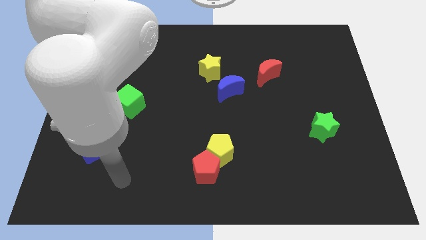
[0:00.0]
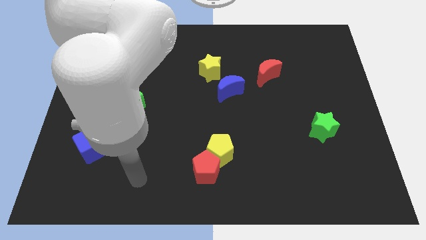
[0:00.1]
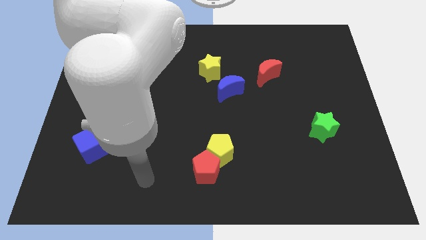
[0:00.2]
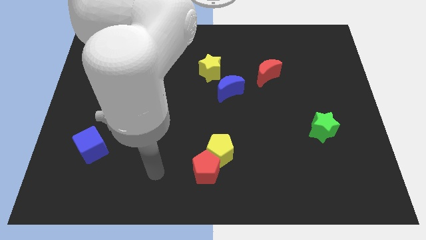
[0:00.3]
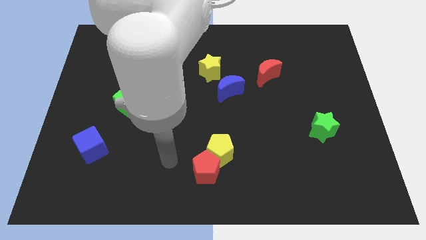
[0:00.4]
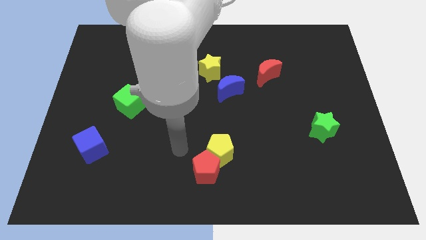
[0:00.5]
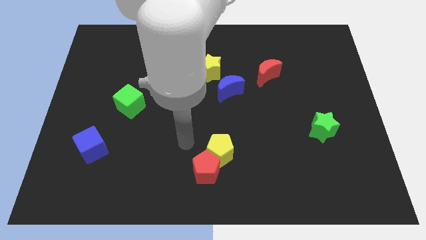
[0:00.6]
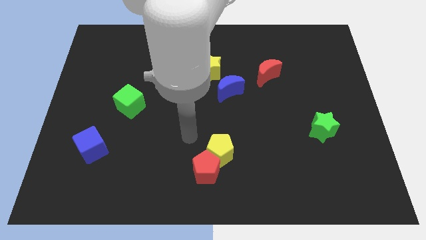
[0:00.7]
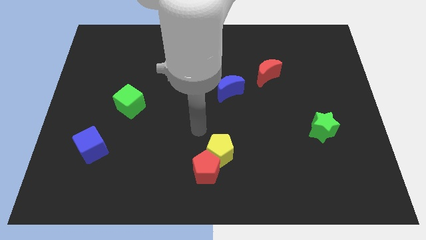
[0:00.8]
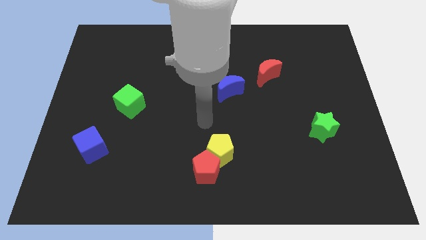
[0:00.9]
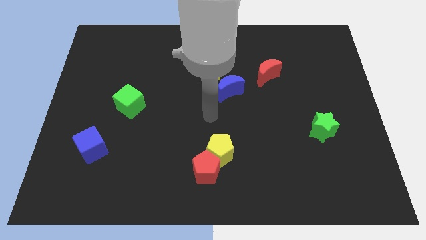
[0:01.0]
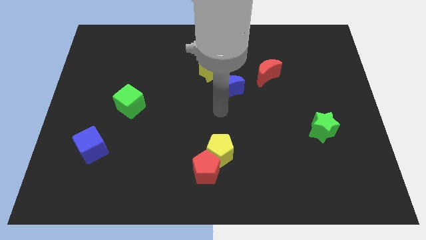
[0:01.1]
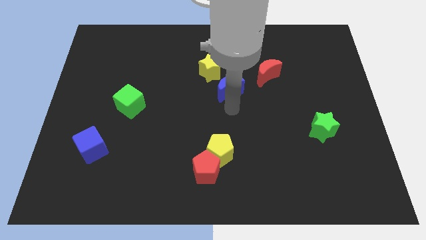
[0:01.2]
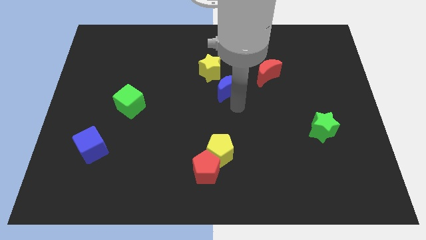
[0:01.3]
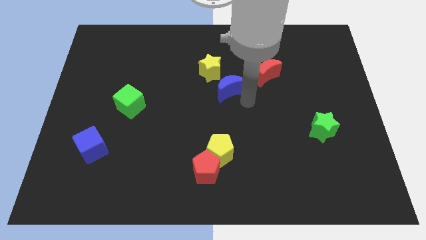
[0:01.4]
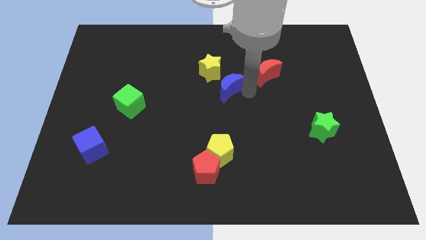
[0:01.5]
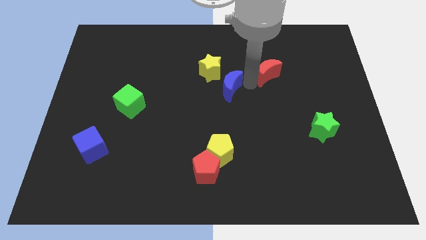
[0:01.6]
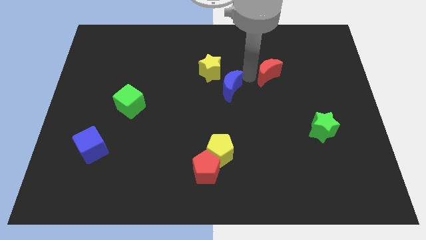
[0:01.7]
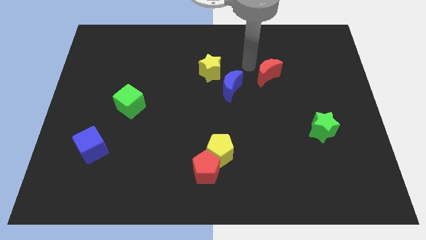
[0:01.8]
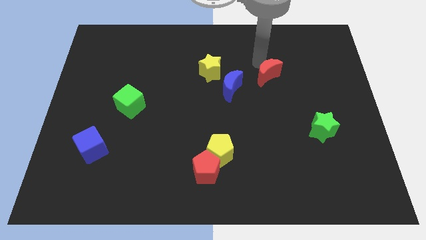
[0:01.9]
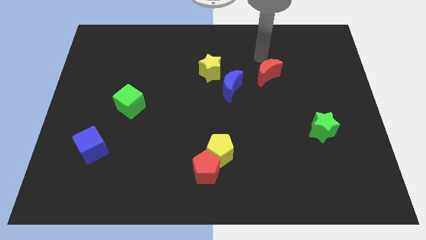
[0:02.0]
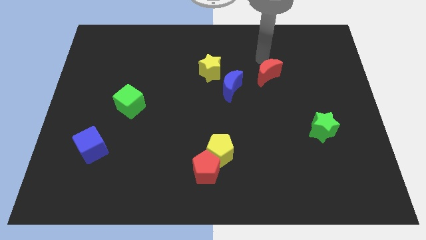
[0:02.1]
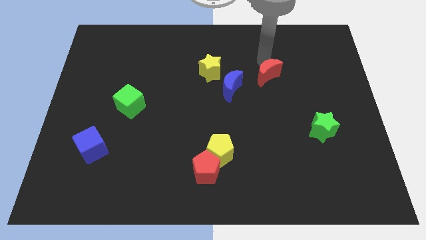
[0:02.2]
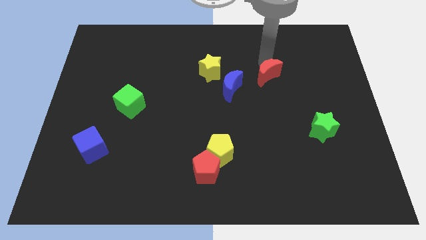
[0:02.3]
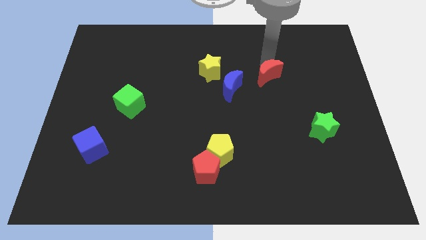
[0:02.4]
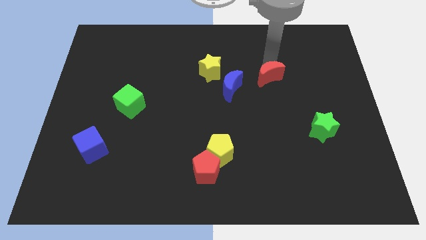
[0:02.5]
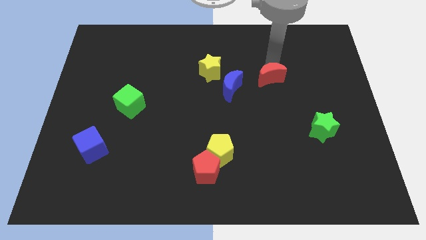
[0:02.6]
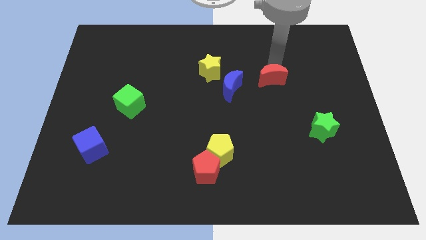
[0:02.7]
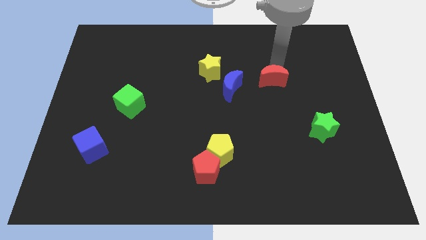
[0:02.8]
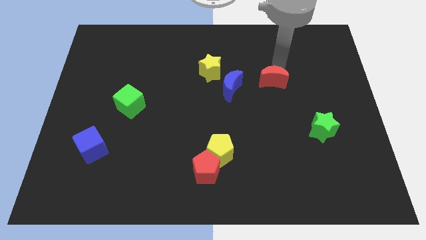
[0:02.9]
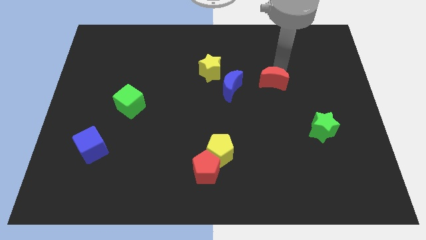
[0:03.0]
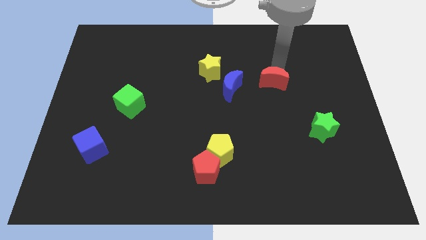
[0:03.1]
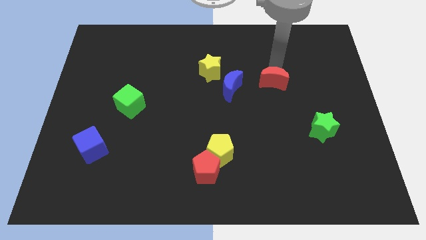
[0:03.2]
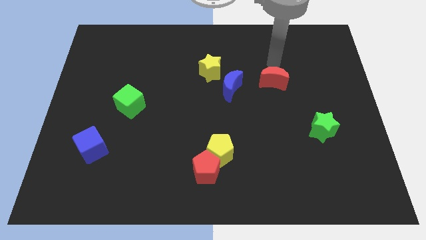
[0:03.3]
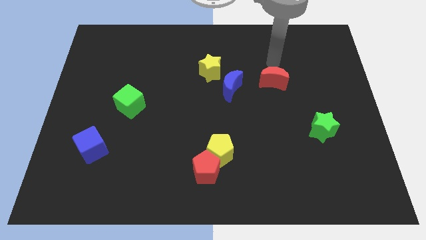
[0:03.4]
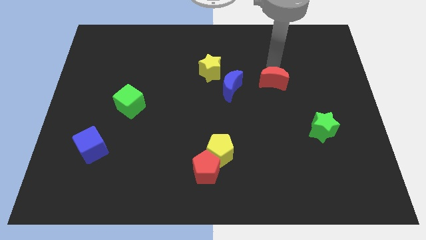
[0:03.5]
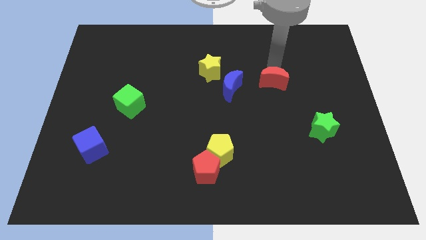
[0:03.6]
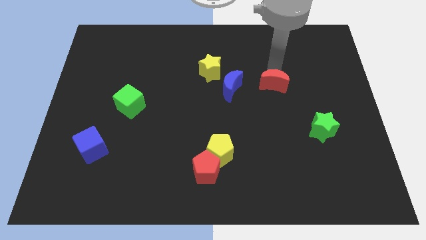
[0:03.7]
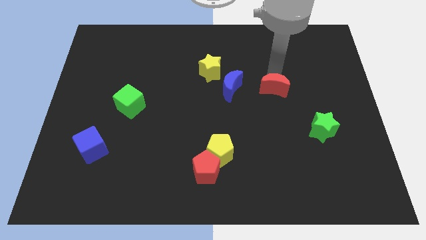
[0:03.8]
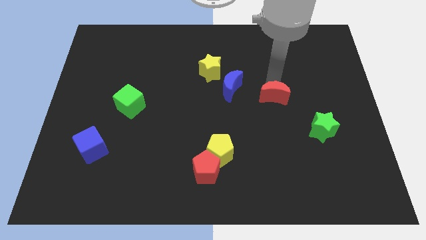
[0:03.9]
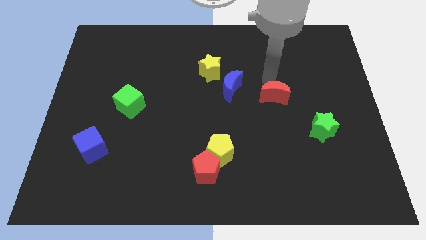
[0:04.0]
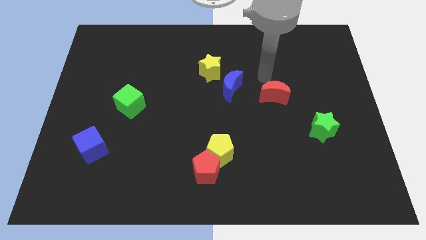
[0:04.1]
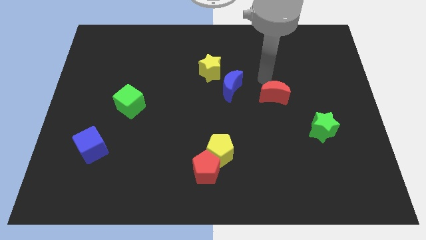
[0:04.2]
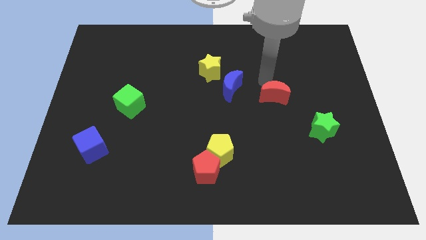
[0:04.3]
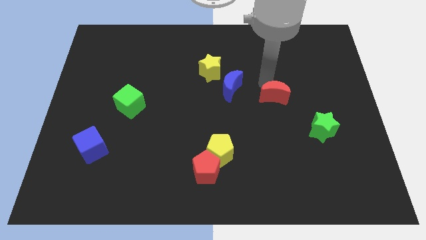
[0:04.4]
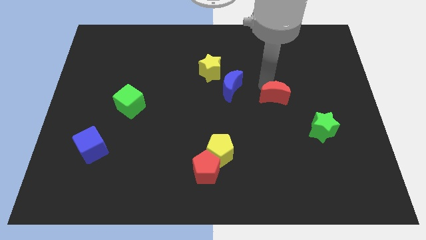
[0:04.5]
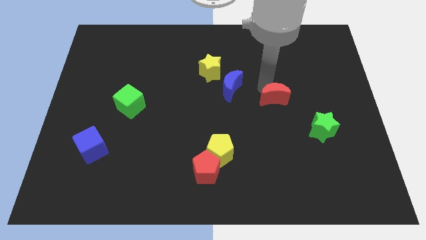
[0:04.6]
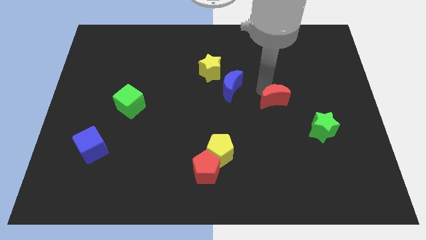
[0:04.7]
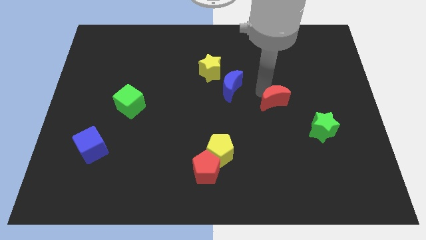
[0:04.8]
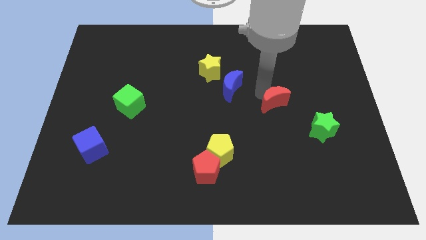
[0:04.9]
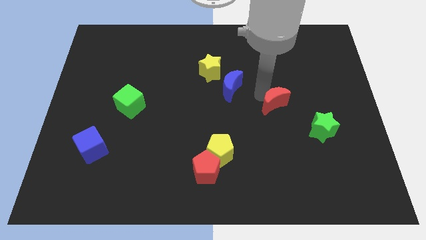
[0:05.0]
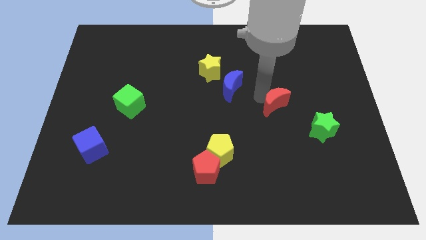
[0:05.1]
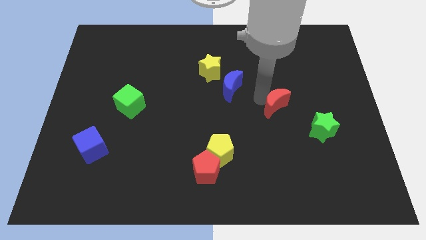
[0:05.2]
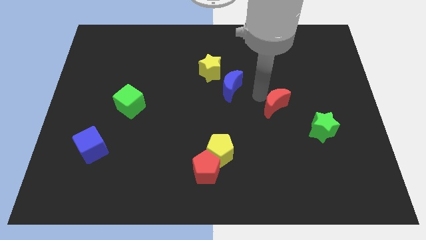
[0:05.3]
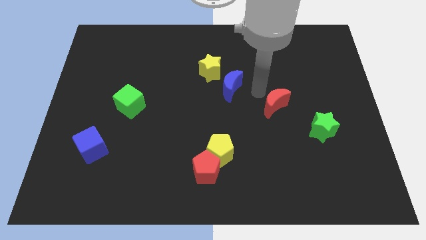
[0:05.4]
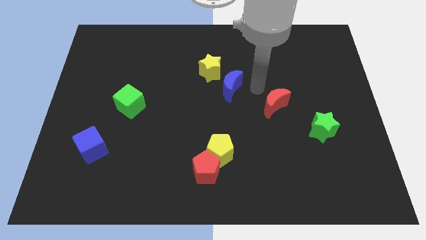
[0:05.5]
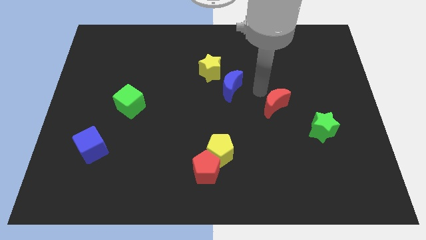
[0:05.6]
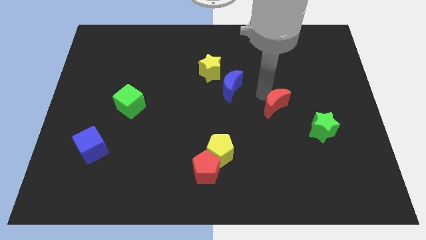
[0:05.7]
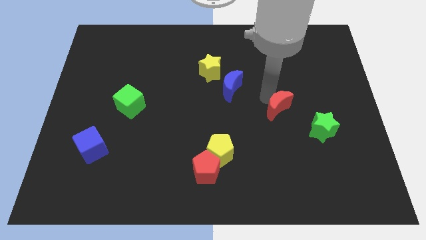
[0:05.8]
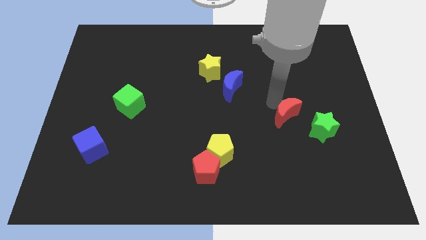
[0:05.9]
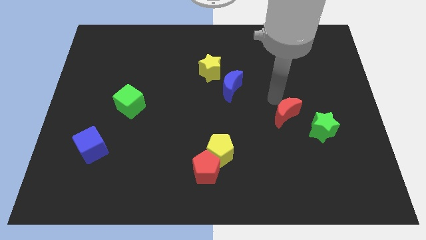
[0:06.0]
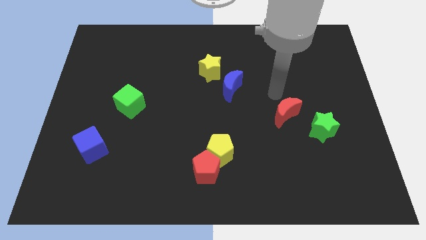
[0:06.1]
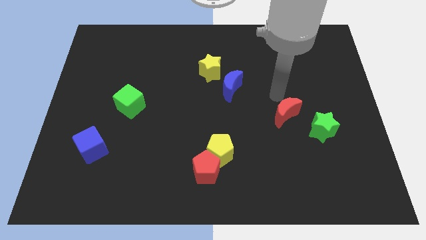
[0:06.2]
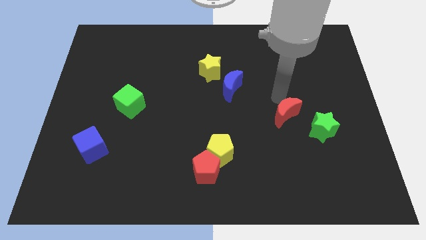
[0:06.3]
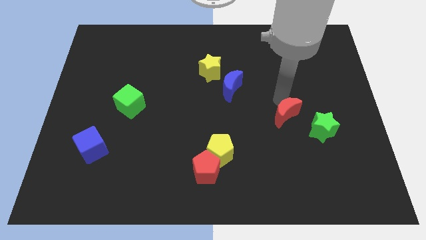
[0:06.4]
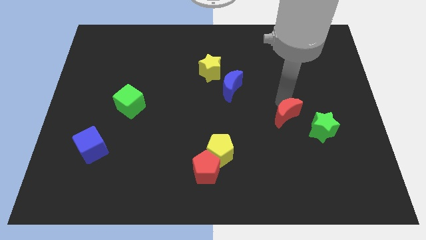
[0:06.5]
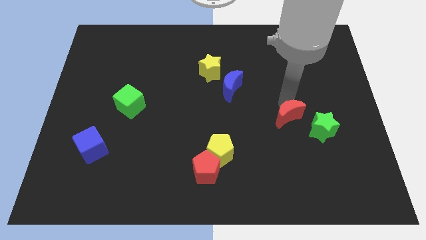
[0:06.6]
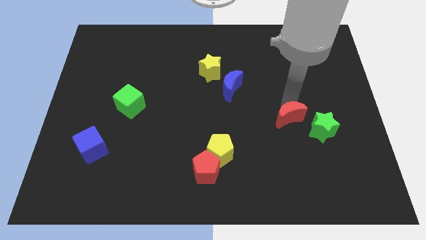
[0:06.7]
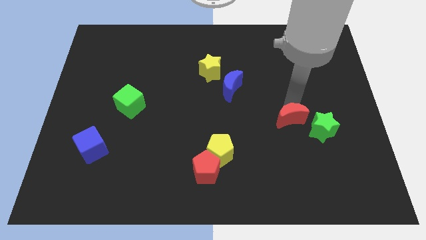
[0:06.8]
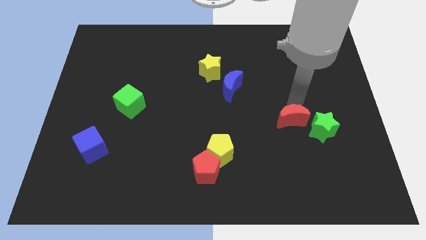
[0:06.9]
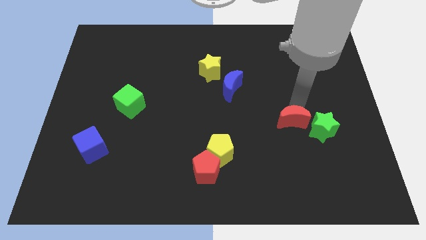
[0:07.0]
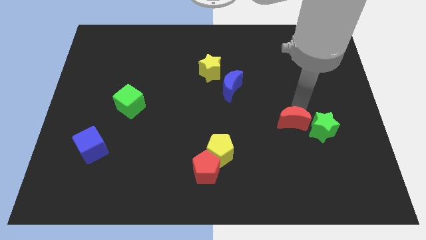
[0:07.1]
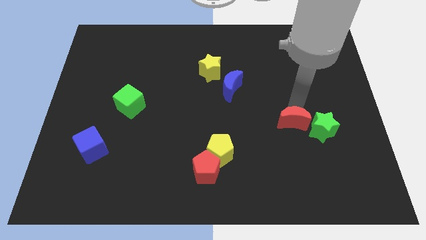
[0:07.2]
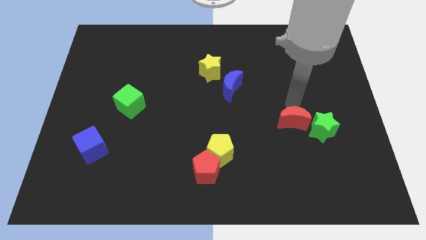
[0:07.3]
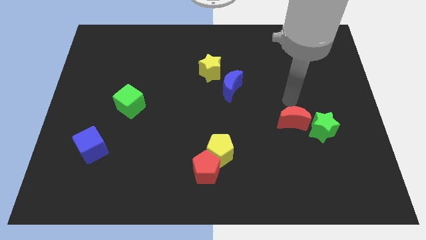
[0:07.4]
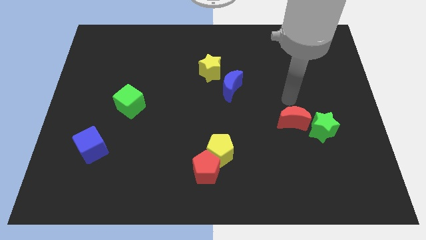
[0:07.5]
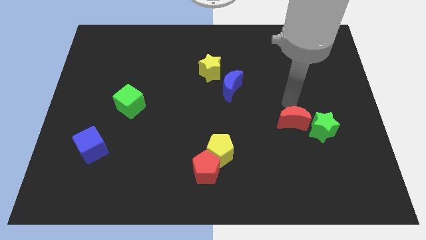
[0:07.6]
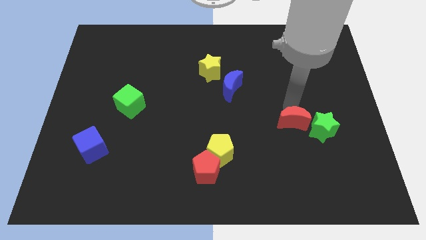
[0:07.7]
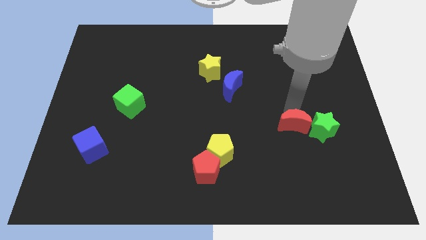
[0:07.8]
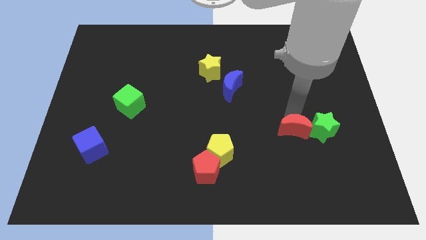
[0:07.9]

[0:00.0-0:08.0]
push the red moon diagonally down and to the left of the green star
